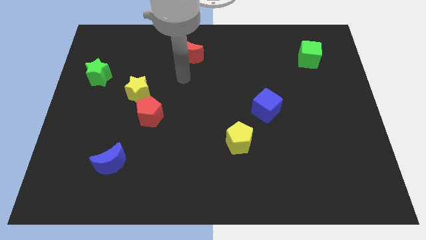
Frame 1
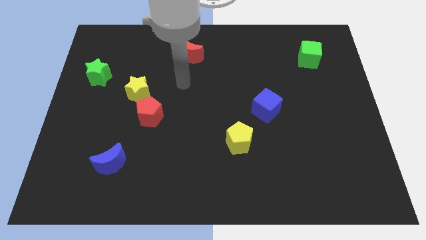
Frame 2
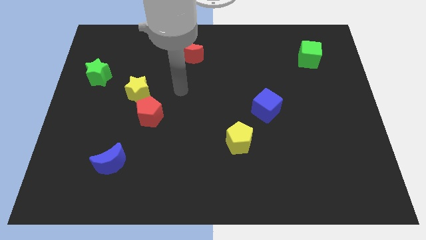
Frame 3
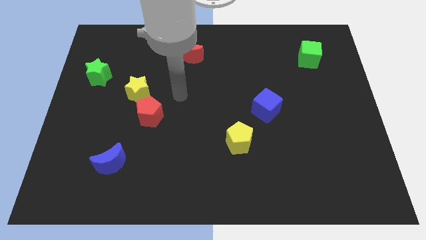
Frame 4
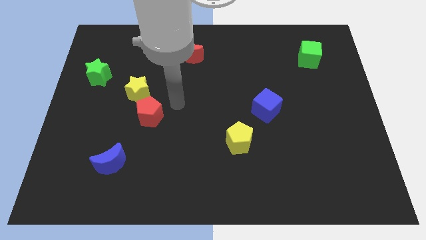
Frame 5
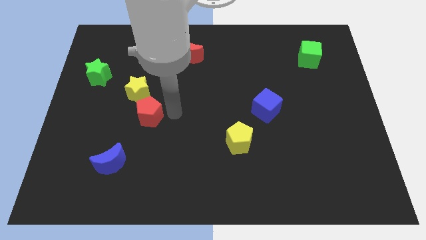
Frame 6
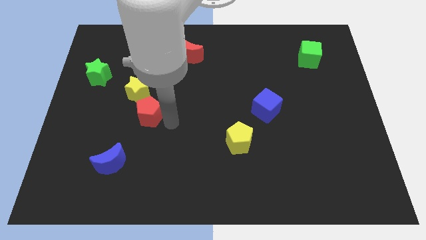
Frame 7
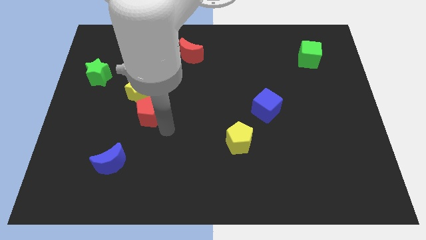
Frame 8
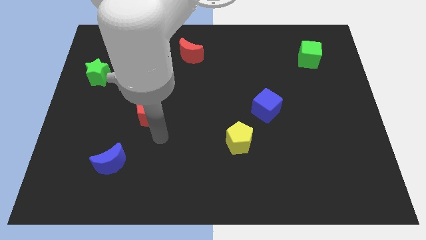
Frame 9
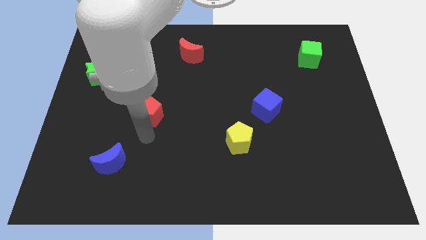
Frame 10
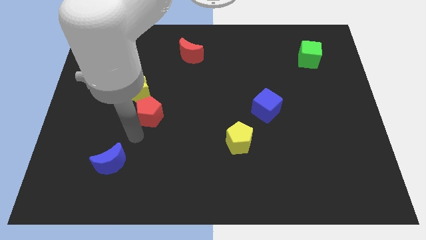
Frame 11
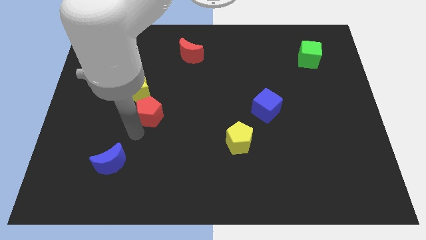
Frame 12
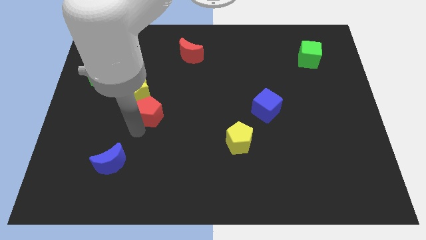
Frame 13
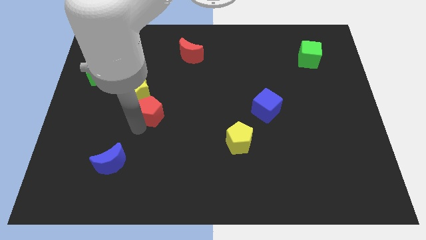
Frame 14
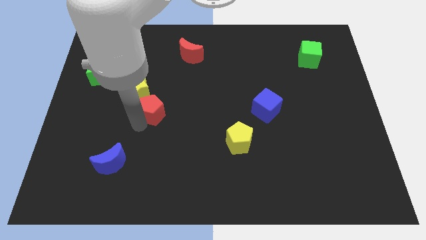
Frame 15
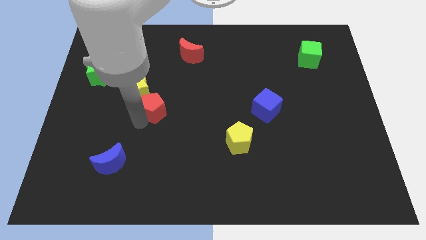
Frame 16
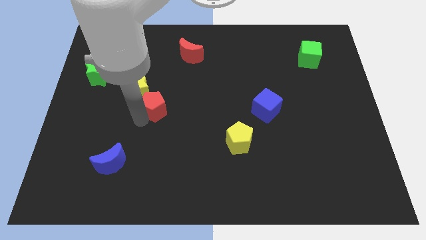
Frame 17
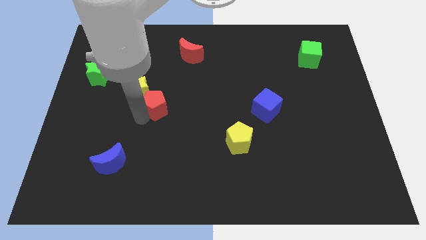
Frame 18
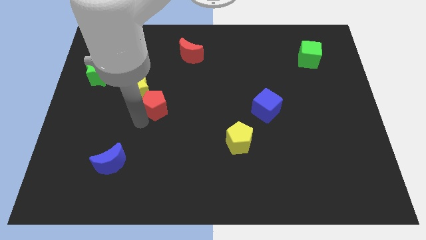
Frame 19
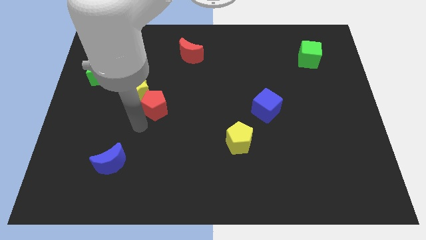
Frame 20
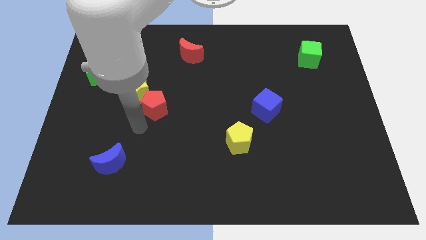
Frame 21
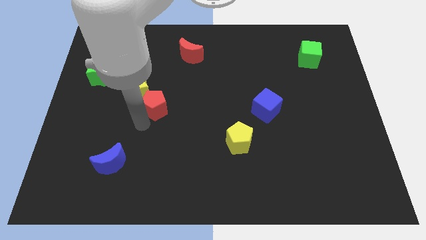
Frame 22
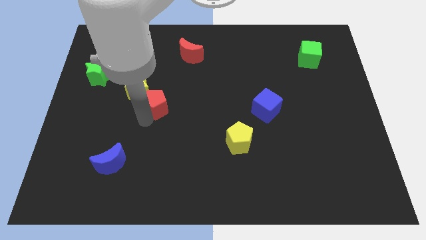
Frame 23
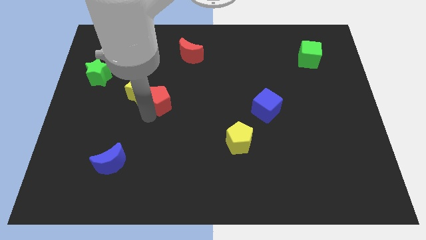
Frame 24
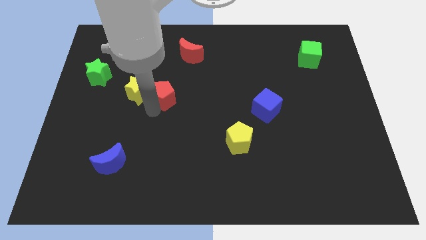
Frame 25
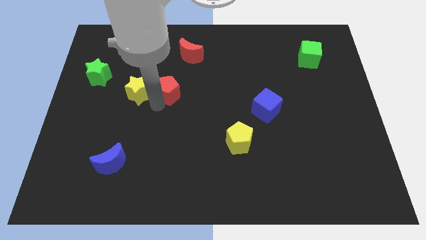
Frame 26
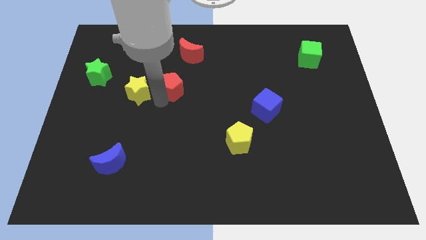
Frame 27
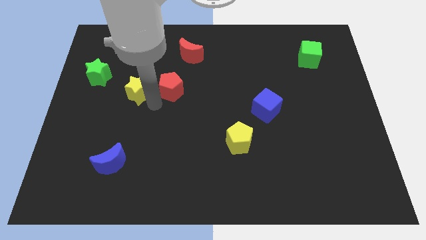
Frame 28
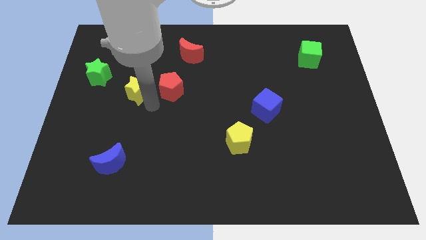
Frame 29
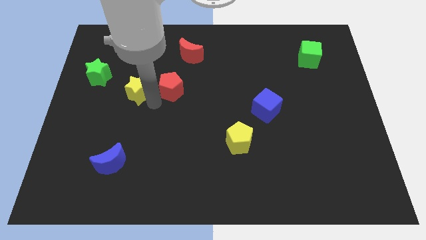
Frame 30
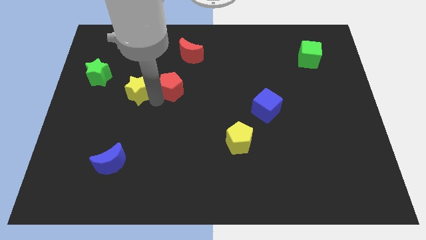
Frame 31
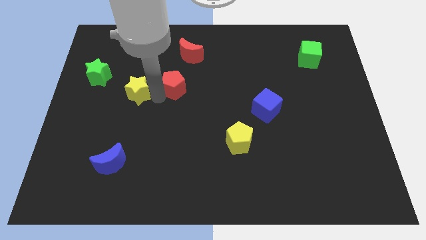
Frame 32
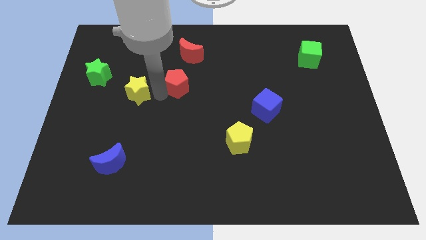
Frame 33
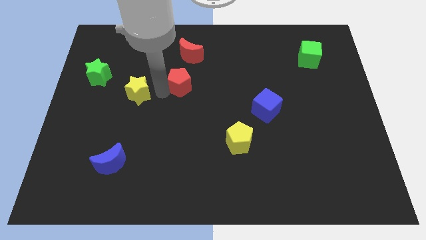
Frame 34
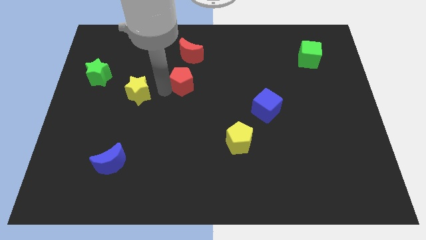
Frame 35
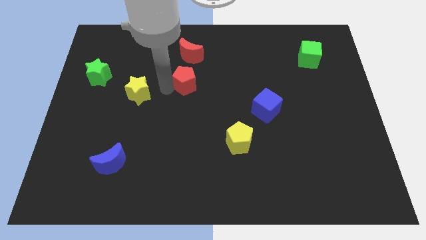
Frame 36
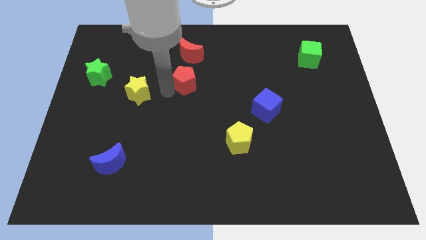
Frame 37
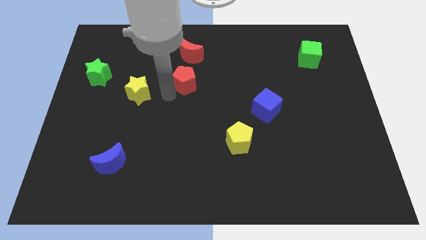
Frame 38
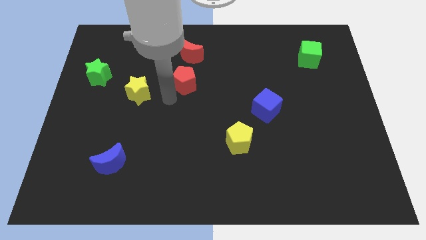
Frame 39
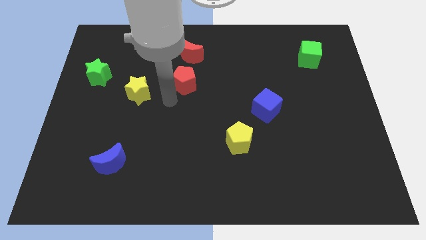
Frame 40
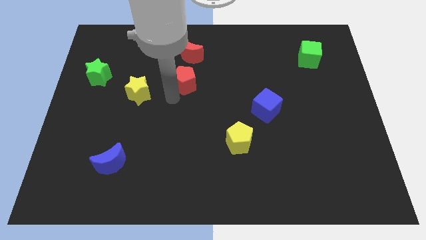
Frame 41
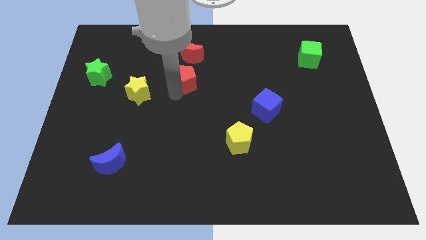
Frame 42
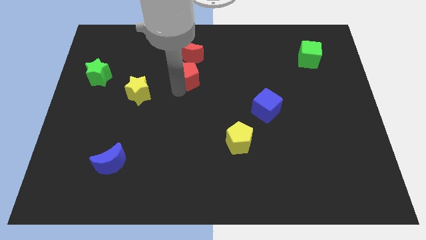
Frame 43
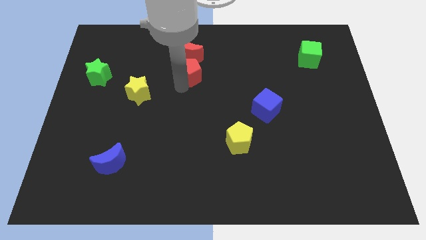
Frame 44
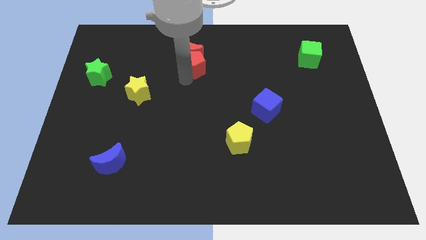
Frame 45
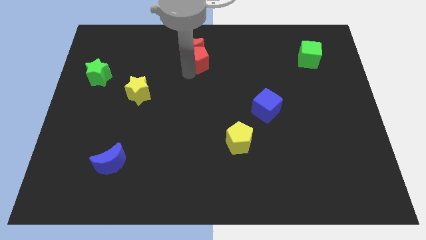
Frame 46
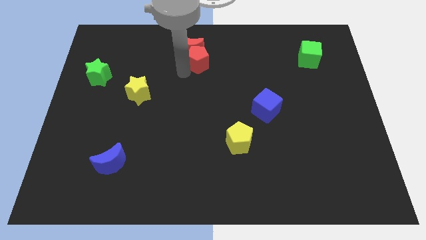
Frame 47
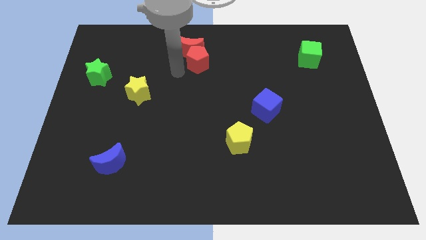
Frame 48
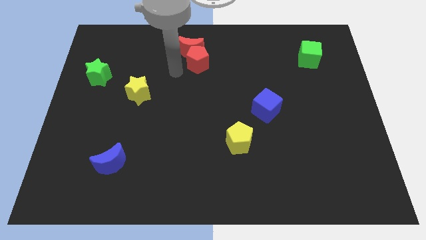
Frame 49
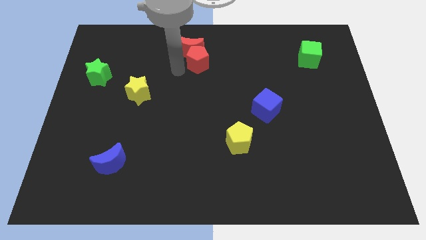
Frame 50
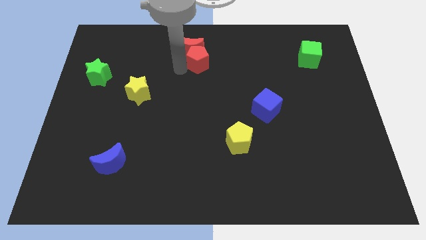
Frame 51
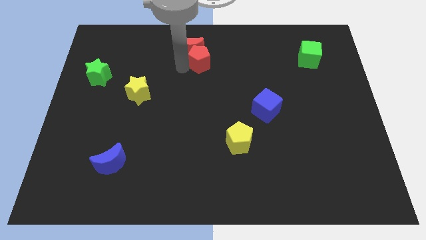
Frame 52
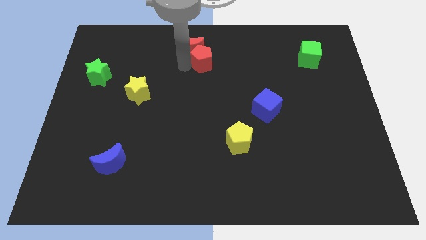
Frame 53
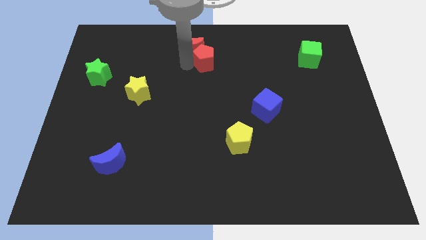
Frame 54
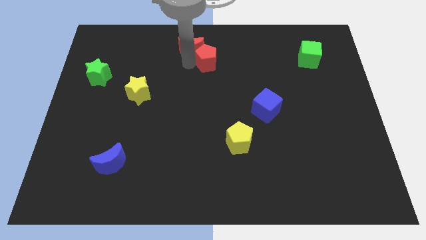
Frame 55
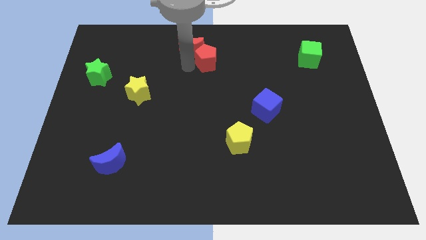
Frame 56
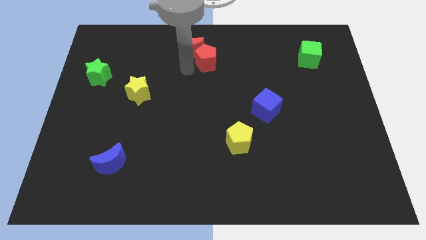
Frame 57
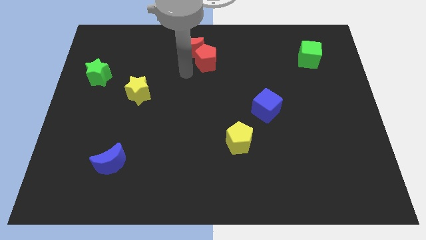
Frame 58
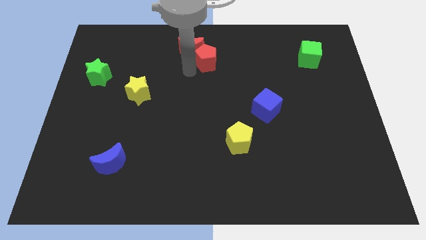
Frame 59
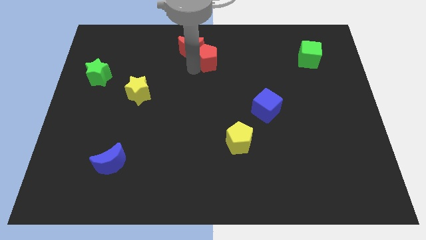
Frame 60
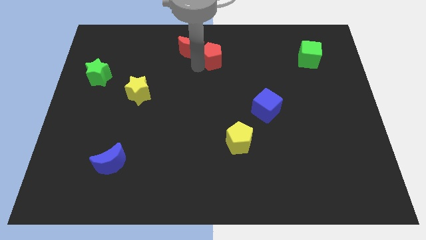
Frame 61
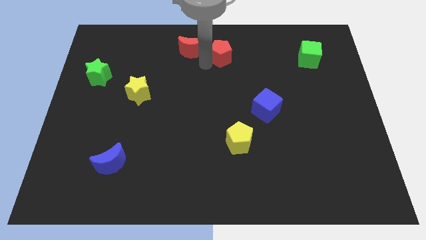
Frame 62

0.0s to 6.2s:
push the red pentagon to the top side

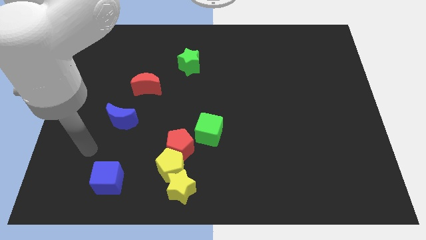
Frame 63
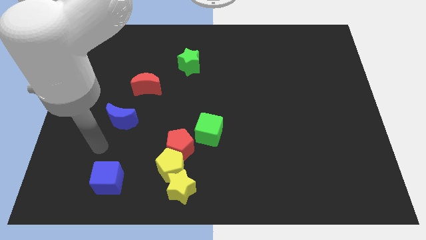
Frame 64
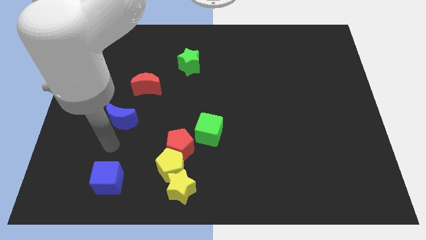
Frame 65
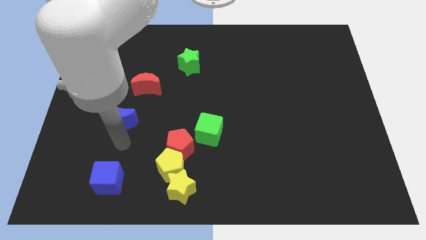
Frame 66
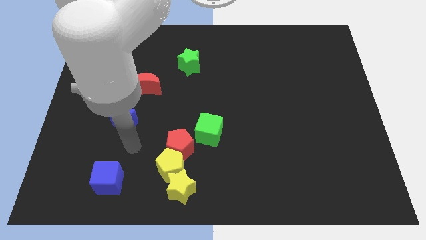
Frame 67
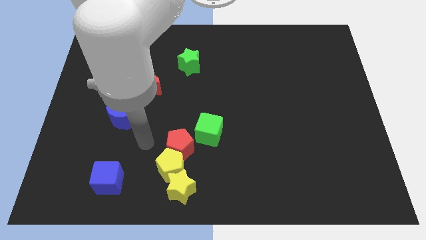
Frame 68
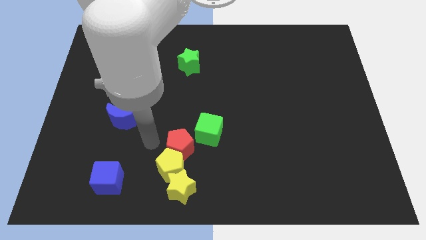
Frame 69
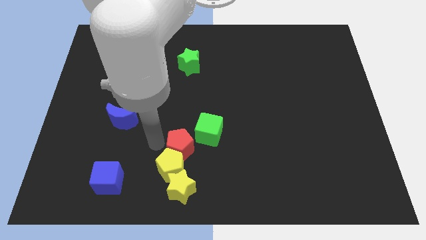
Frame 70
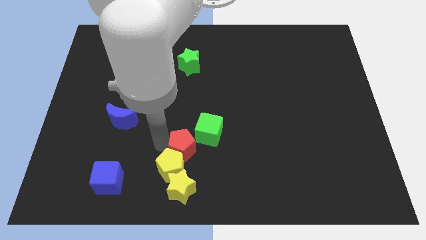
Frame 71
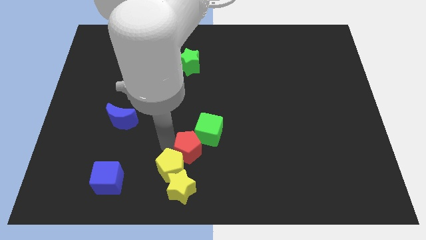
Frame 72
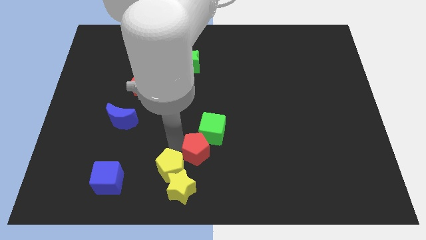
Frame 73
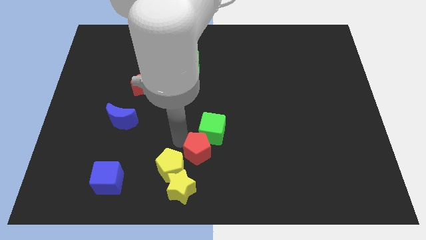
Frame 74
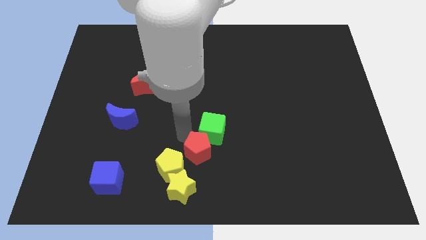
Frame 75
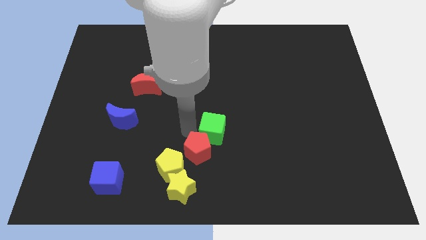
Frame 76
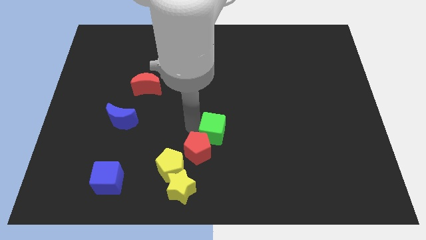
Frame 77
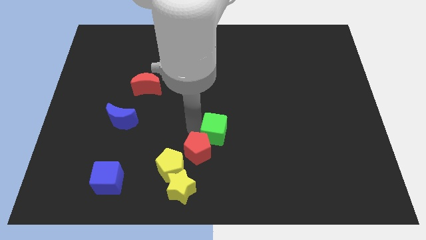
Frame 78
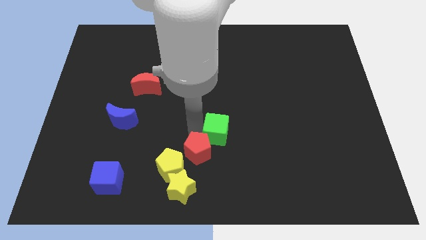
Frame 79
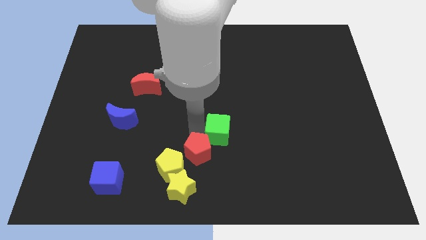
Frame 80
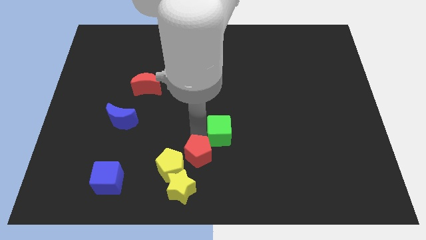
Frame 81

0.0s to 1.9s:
push the red pentagon to the bottom
